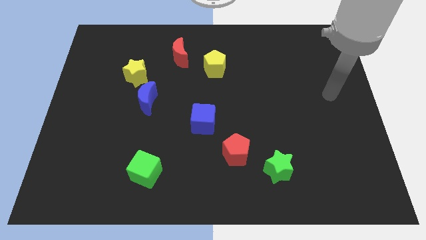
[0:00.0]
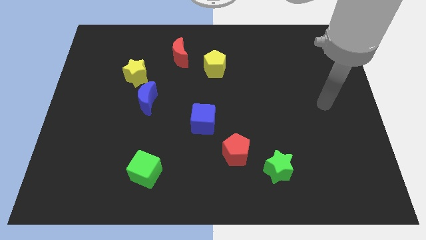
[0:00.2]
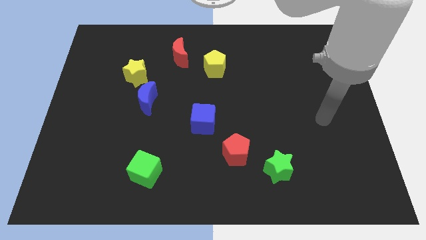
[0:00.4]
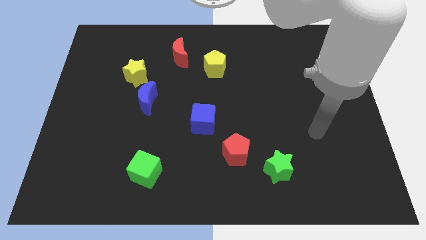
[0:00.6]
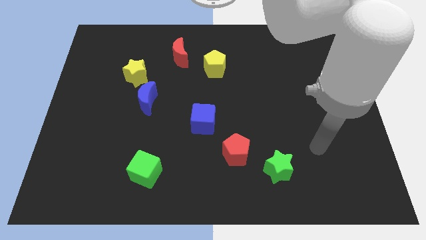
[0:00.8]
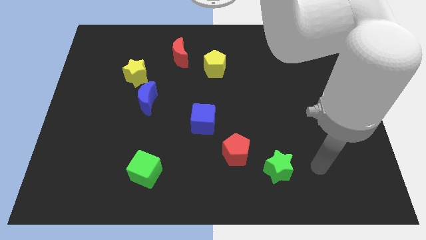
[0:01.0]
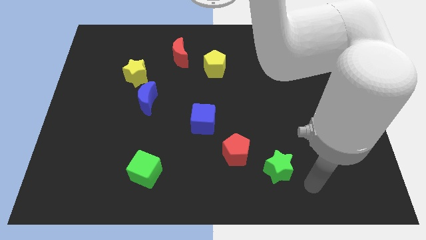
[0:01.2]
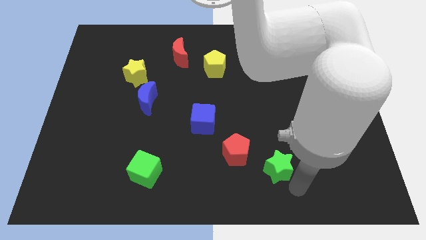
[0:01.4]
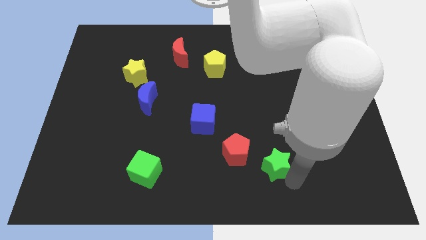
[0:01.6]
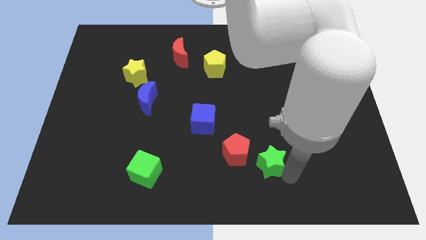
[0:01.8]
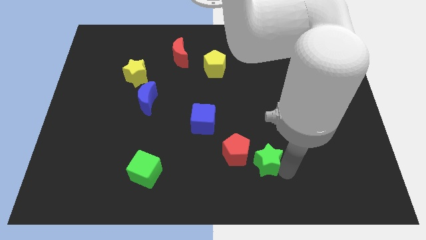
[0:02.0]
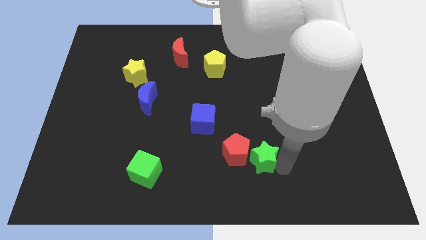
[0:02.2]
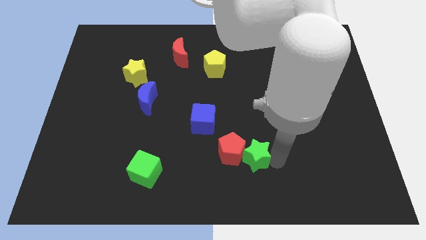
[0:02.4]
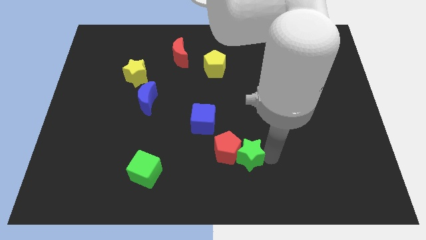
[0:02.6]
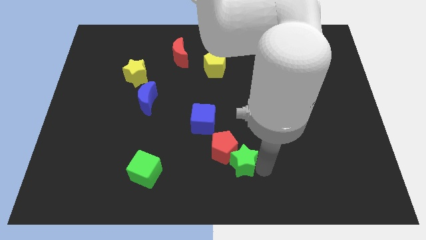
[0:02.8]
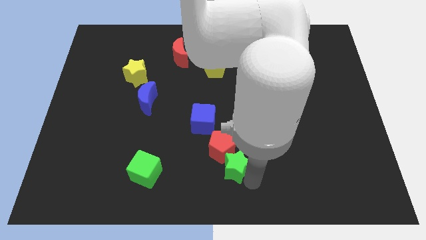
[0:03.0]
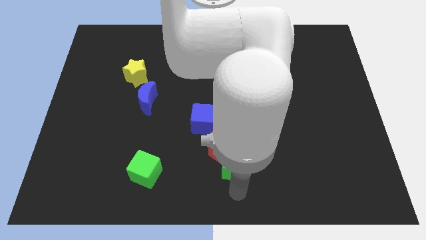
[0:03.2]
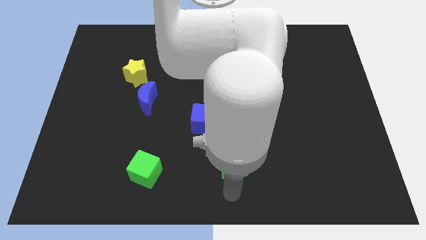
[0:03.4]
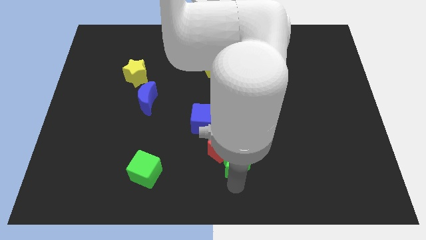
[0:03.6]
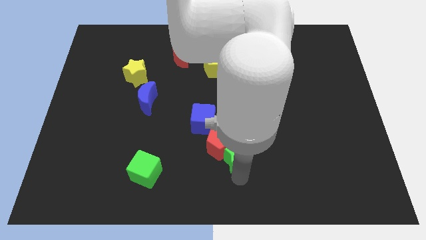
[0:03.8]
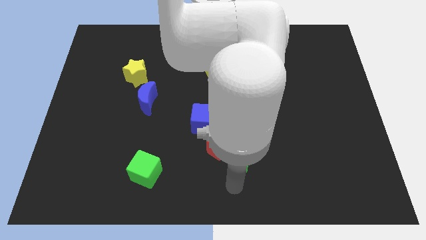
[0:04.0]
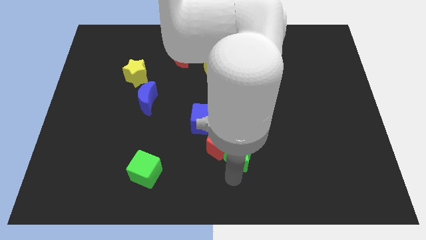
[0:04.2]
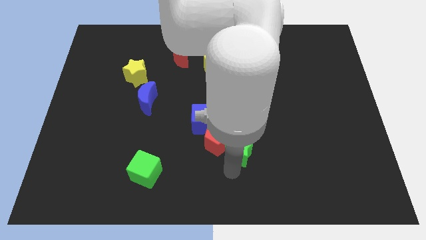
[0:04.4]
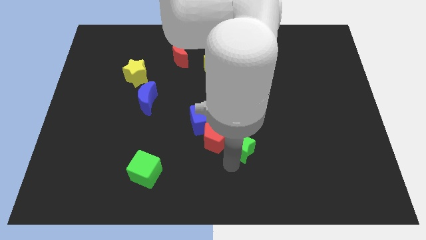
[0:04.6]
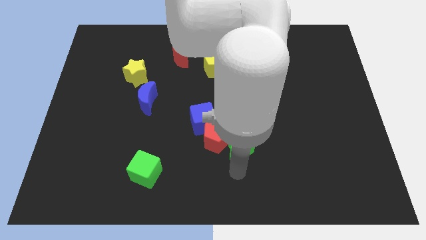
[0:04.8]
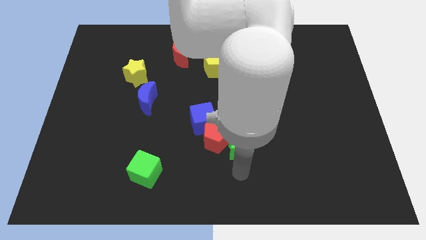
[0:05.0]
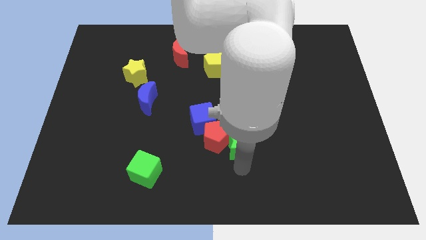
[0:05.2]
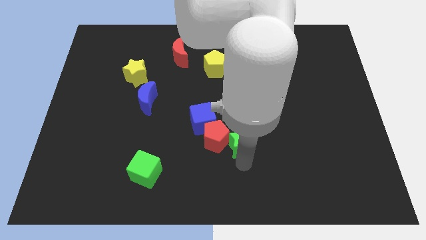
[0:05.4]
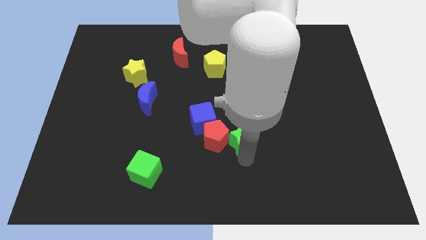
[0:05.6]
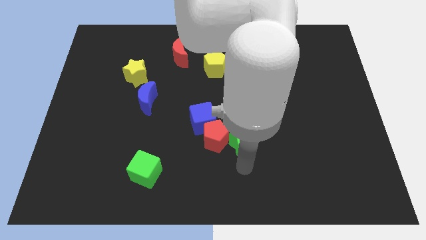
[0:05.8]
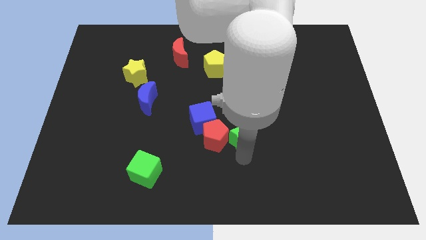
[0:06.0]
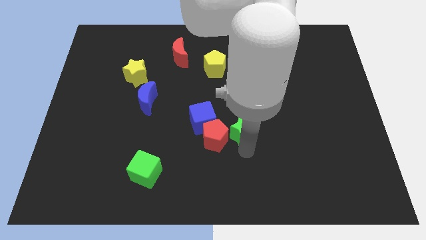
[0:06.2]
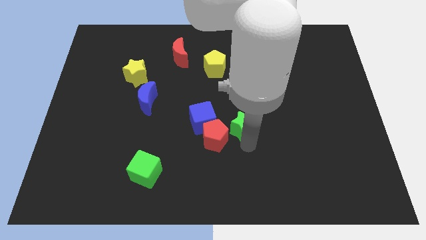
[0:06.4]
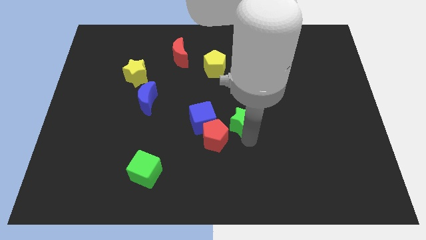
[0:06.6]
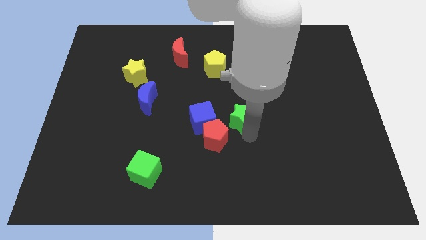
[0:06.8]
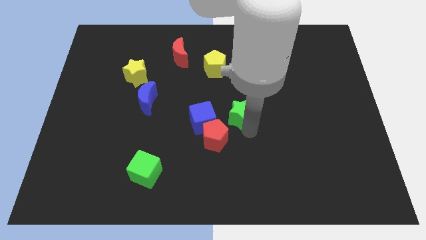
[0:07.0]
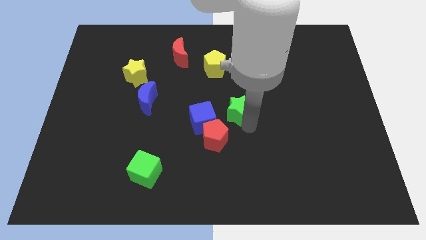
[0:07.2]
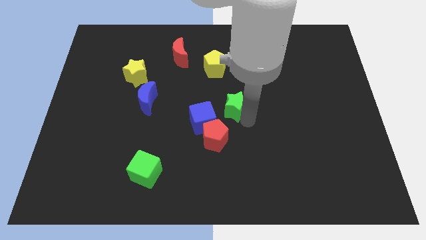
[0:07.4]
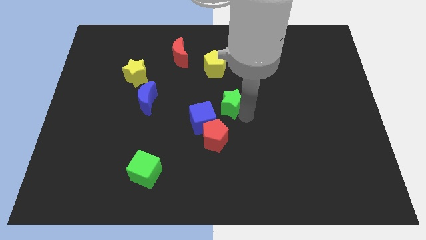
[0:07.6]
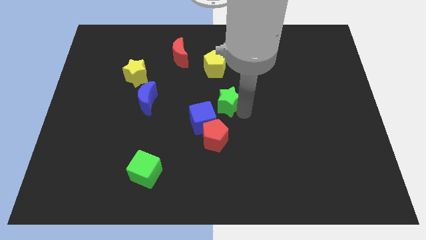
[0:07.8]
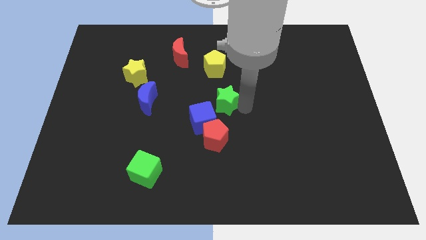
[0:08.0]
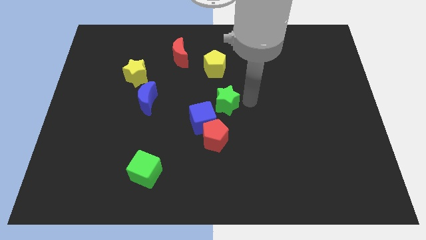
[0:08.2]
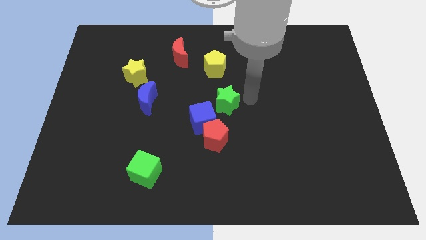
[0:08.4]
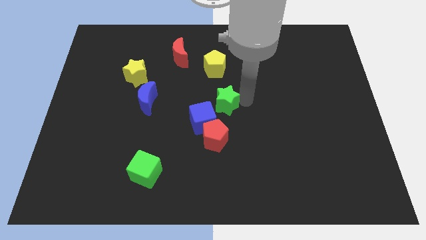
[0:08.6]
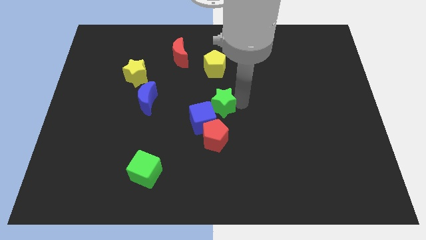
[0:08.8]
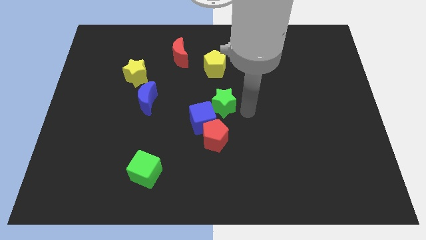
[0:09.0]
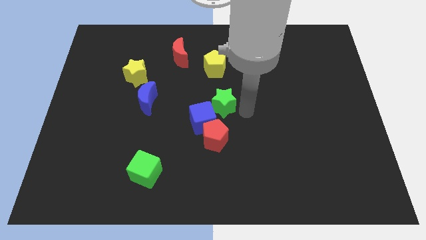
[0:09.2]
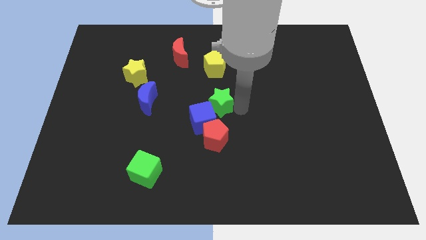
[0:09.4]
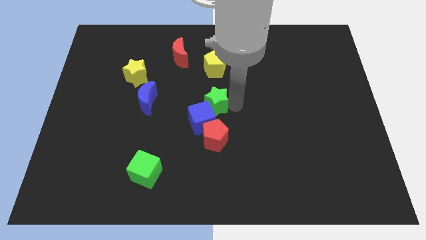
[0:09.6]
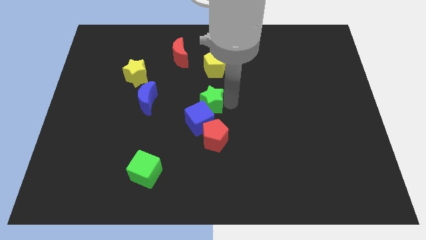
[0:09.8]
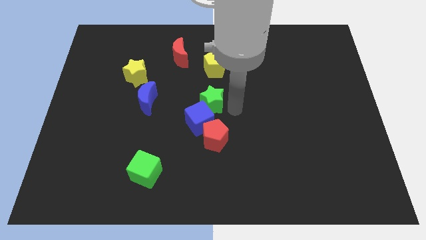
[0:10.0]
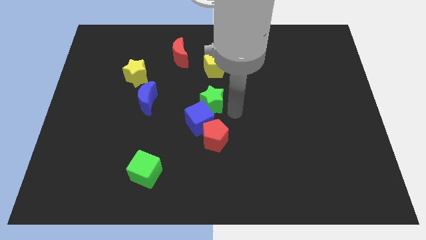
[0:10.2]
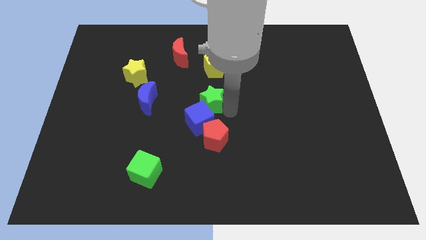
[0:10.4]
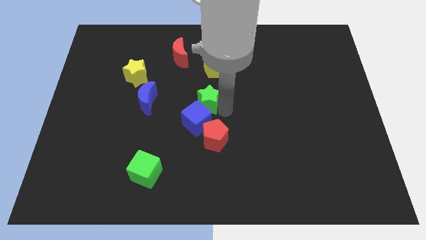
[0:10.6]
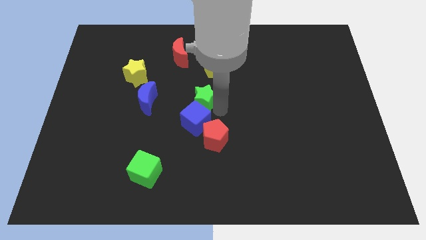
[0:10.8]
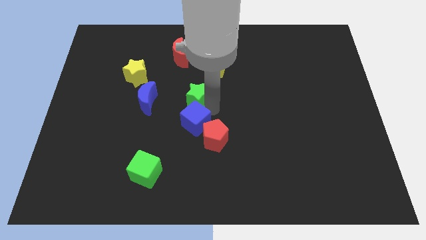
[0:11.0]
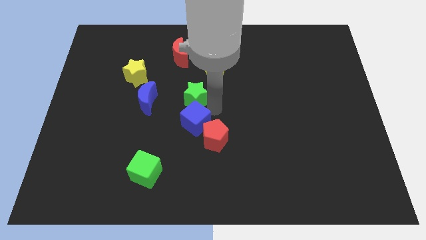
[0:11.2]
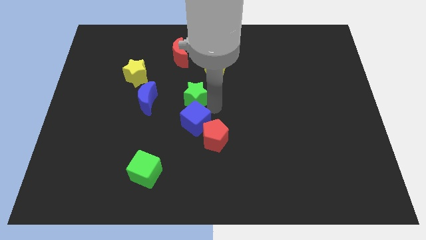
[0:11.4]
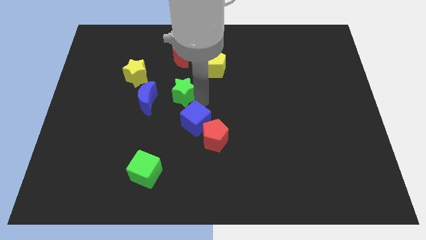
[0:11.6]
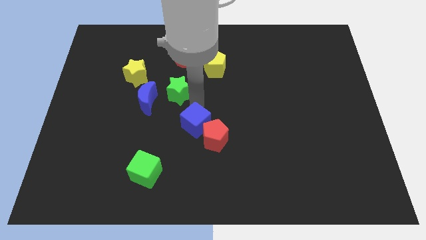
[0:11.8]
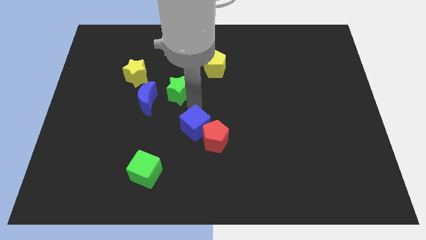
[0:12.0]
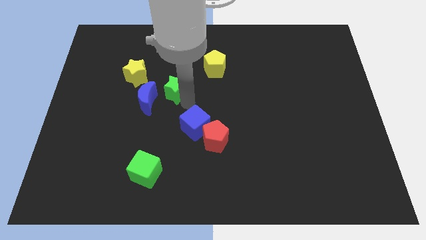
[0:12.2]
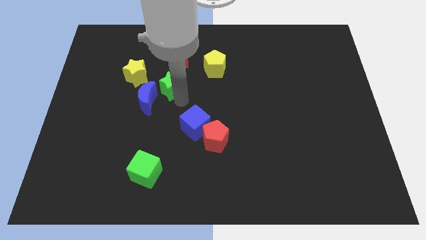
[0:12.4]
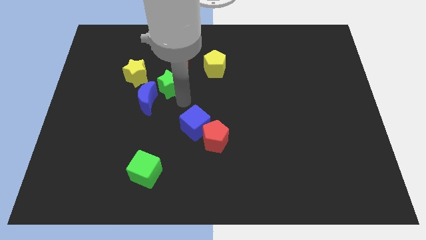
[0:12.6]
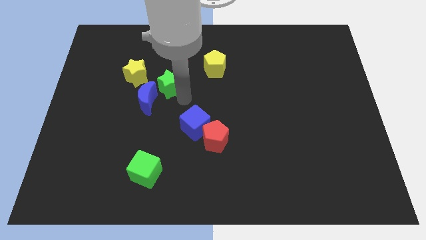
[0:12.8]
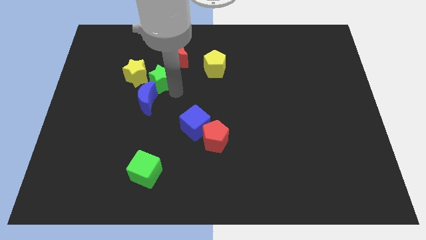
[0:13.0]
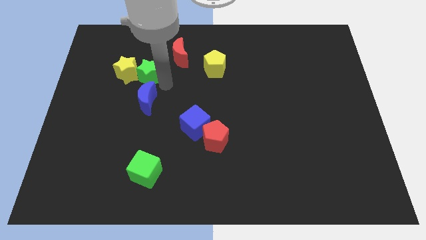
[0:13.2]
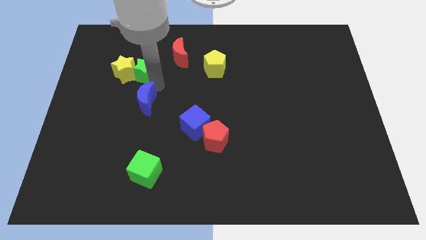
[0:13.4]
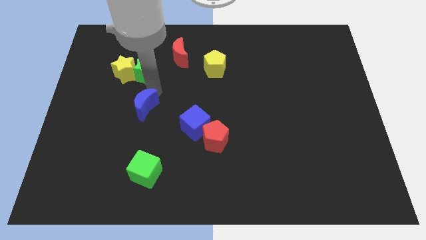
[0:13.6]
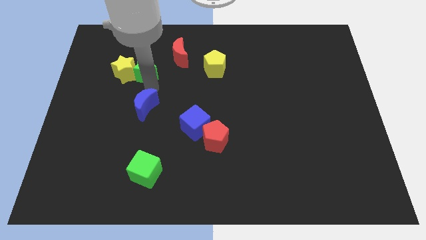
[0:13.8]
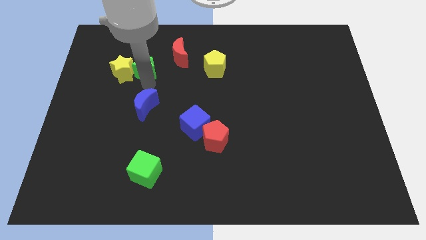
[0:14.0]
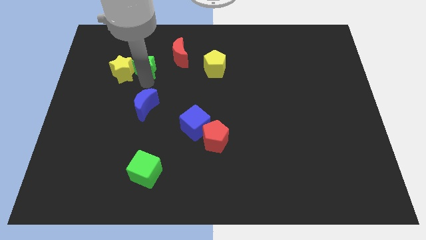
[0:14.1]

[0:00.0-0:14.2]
move the green star just left of the red moon
